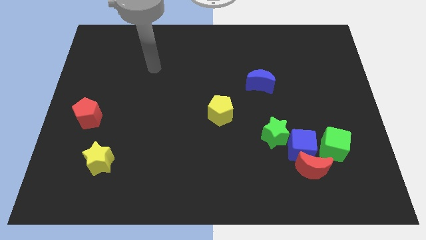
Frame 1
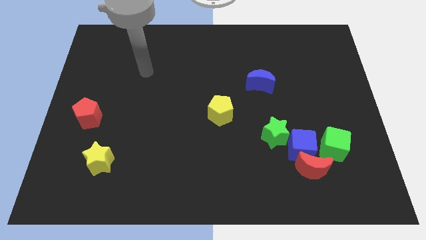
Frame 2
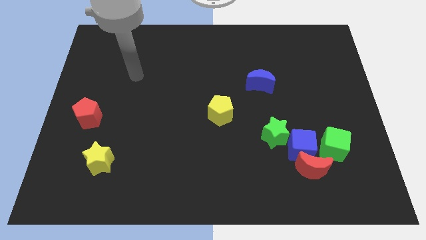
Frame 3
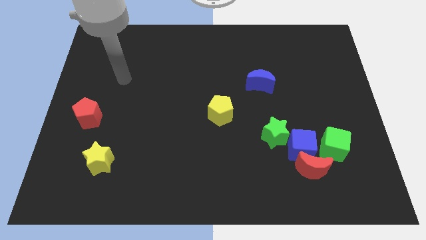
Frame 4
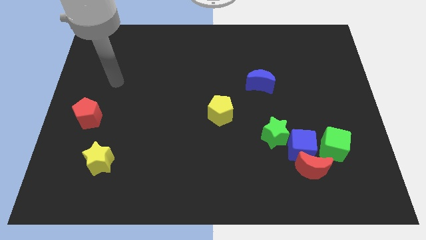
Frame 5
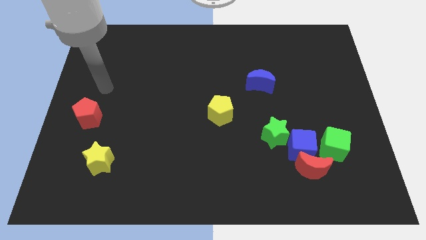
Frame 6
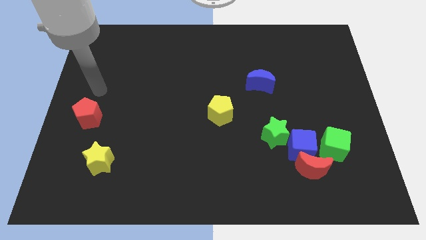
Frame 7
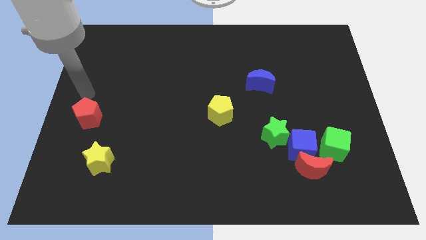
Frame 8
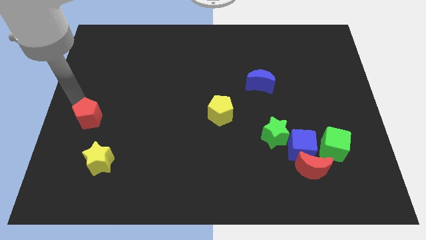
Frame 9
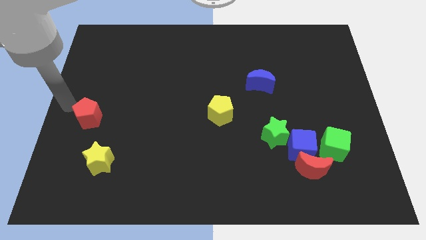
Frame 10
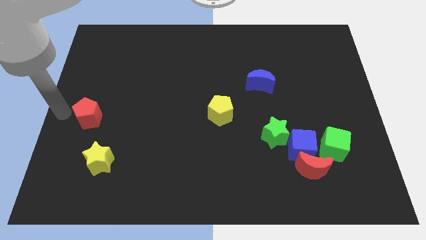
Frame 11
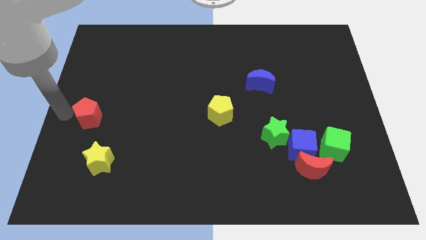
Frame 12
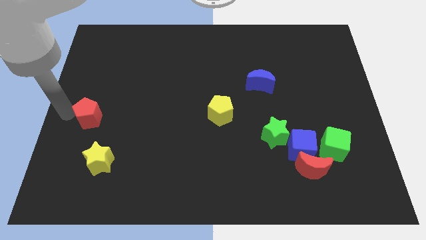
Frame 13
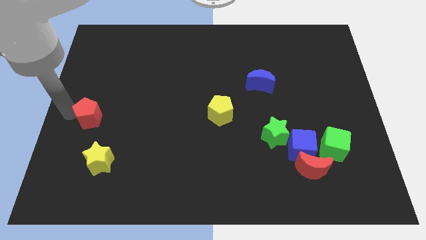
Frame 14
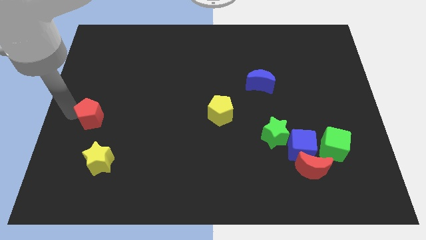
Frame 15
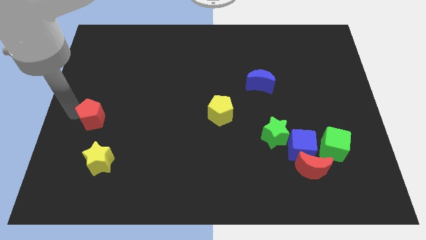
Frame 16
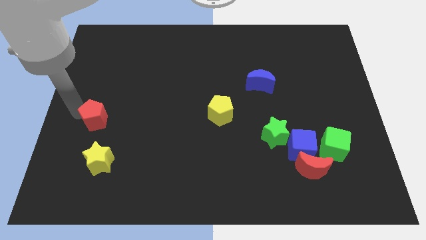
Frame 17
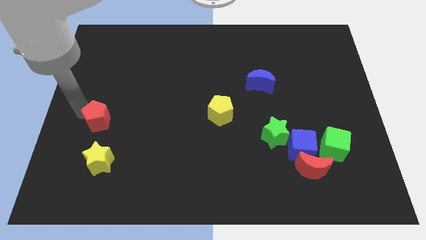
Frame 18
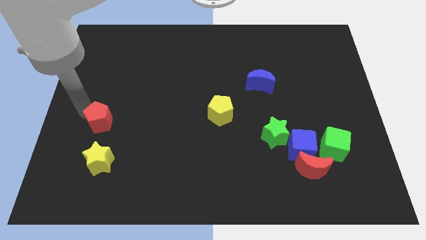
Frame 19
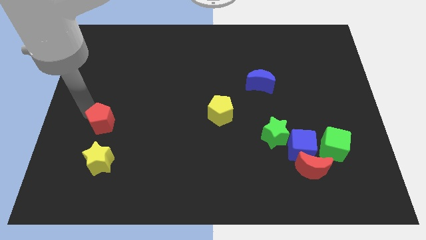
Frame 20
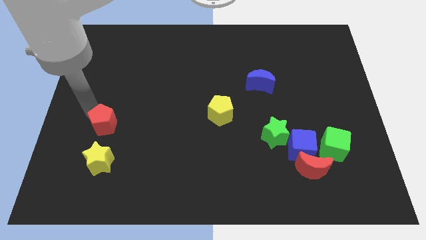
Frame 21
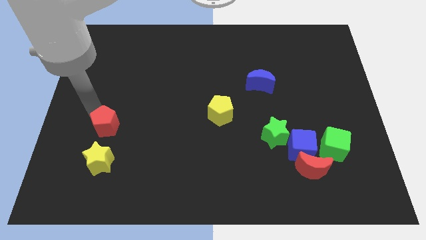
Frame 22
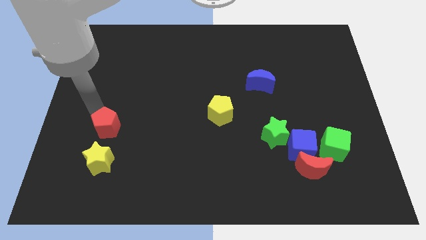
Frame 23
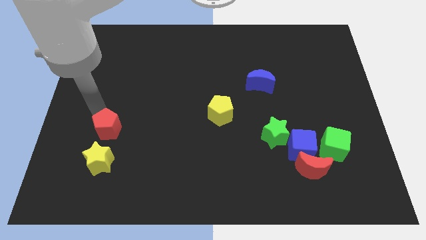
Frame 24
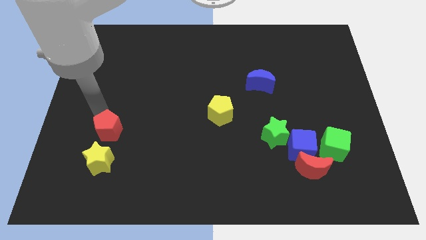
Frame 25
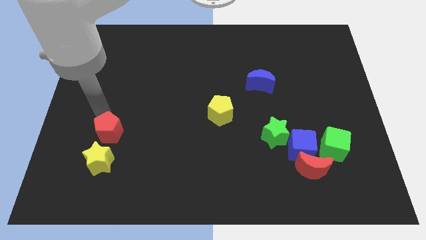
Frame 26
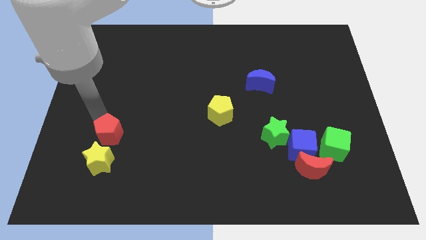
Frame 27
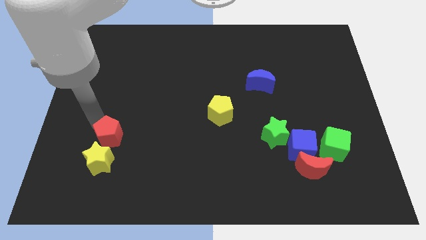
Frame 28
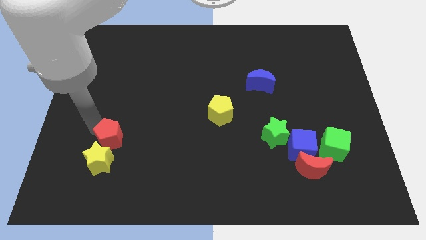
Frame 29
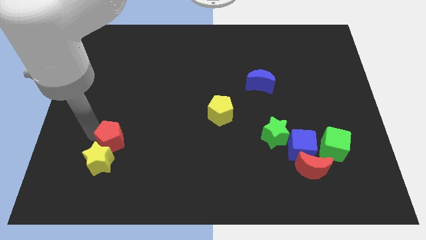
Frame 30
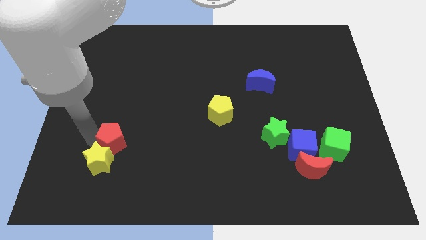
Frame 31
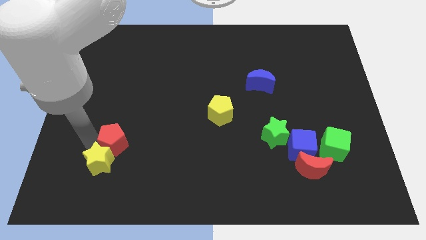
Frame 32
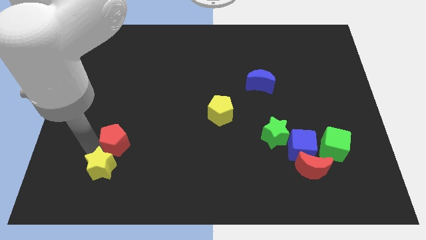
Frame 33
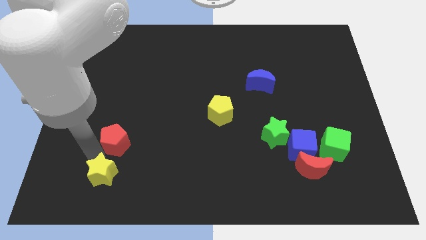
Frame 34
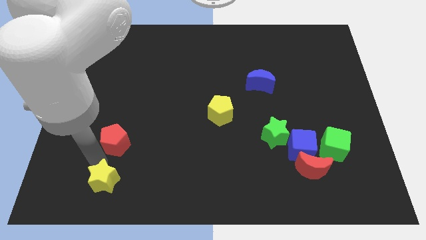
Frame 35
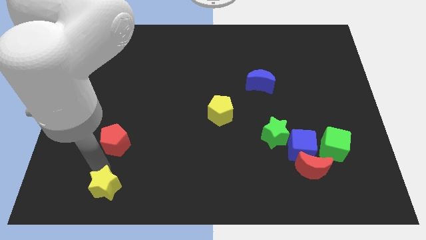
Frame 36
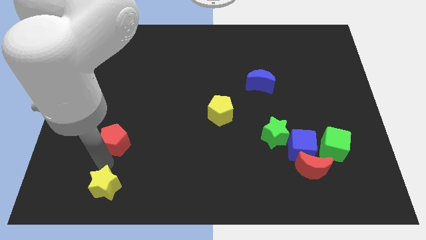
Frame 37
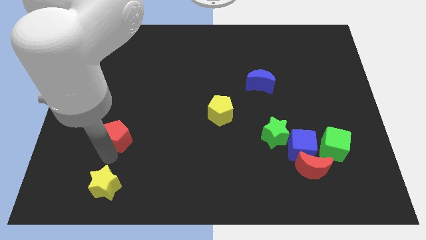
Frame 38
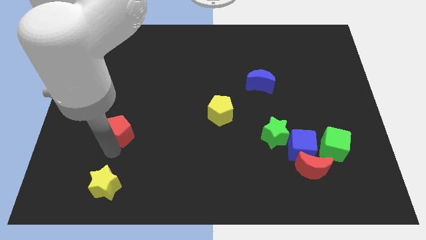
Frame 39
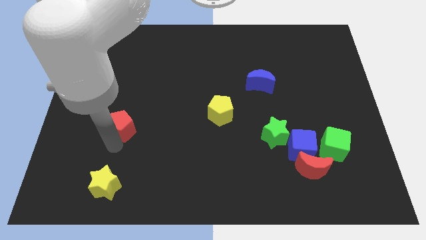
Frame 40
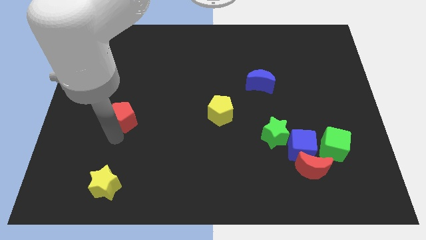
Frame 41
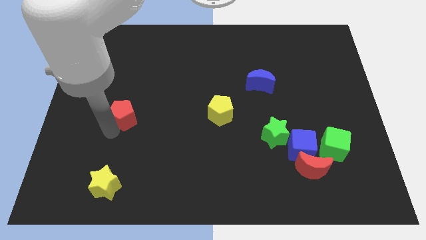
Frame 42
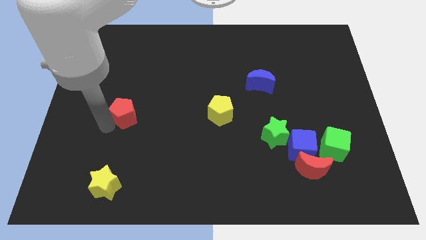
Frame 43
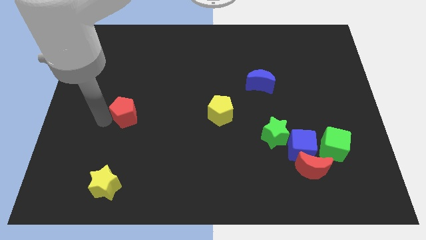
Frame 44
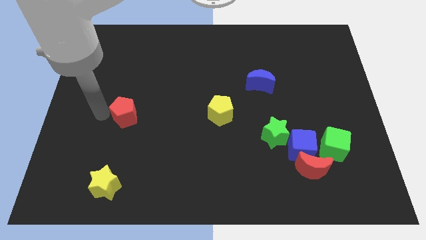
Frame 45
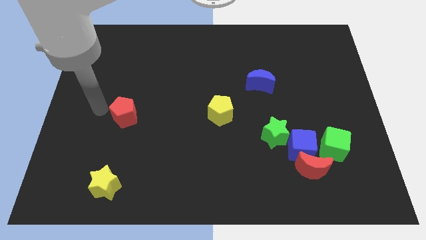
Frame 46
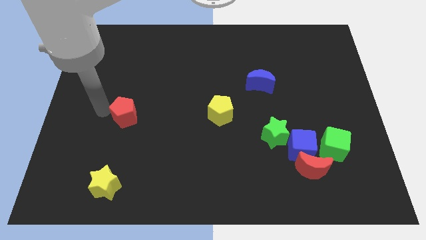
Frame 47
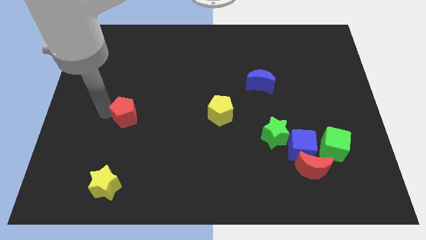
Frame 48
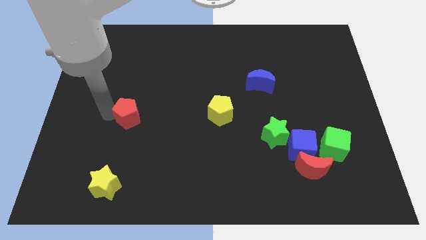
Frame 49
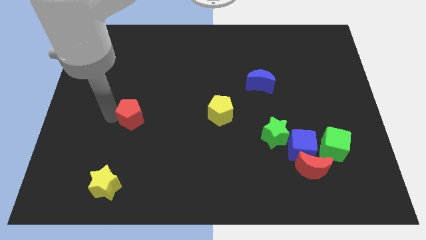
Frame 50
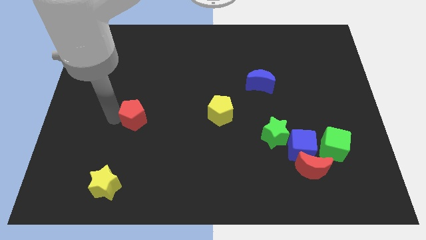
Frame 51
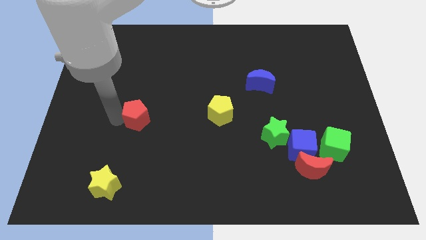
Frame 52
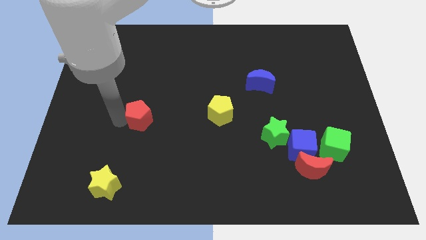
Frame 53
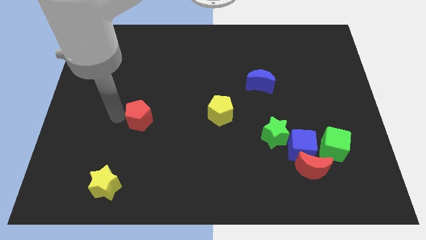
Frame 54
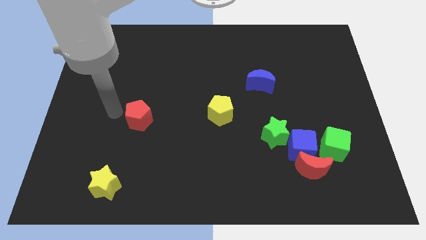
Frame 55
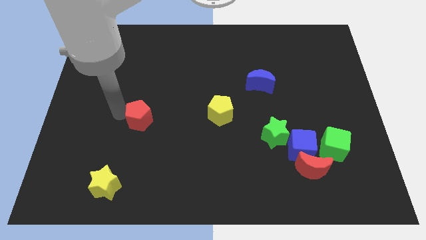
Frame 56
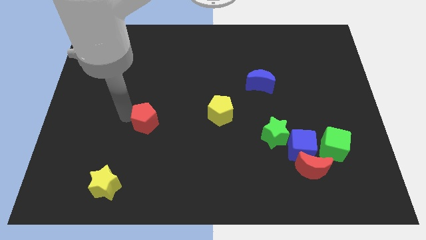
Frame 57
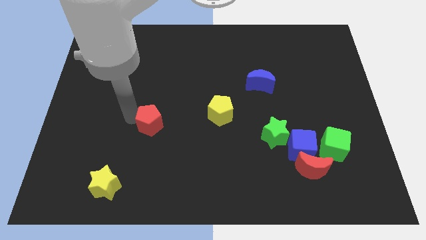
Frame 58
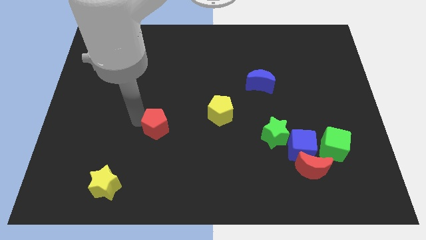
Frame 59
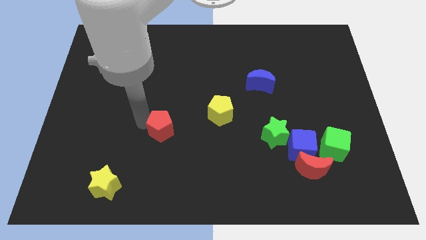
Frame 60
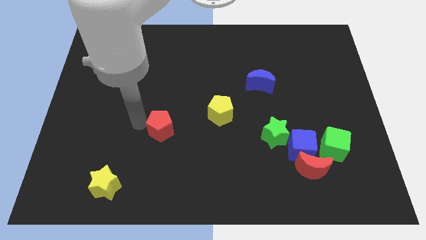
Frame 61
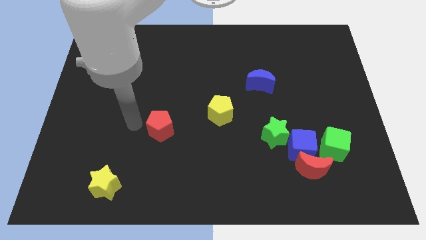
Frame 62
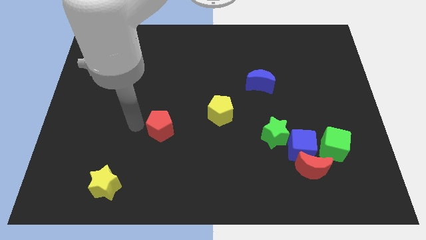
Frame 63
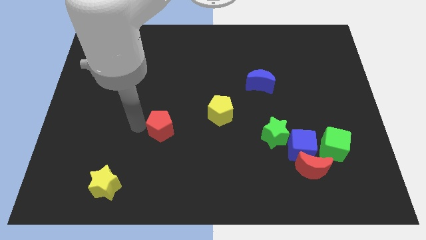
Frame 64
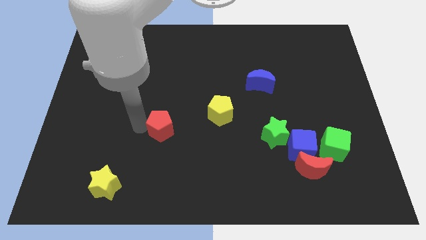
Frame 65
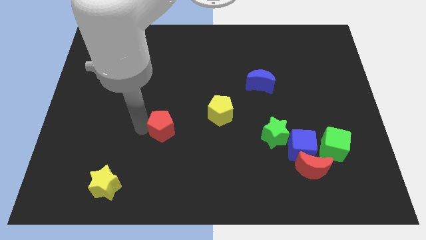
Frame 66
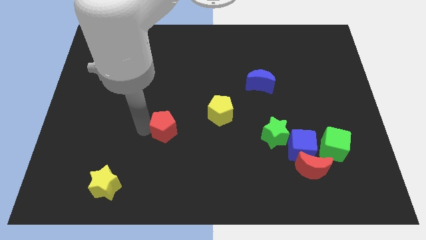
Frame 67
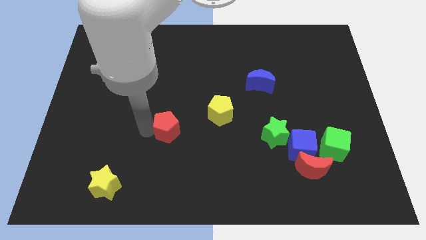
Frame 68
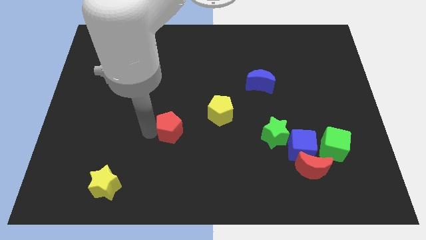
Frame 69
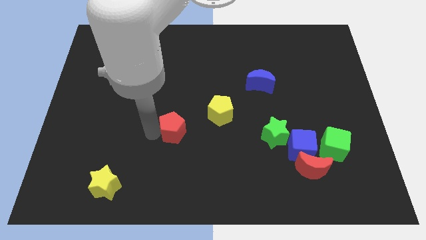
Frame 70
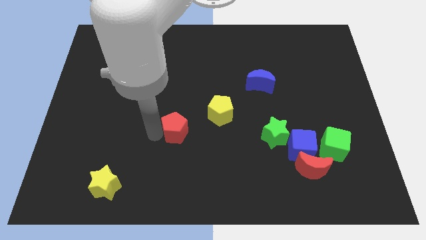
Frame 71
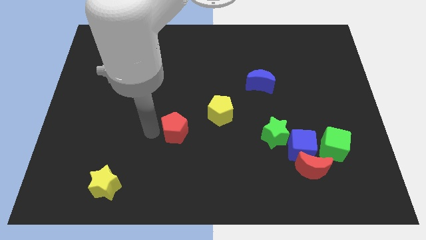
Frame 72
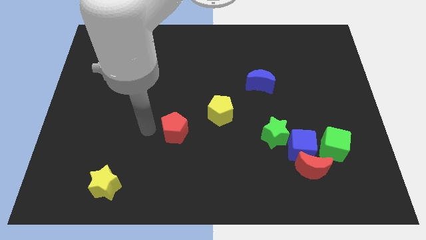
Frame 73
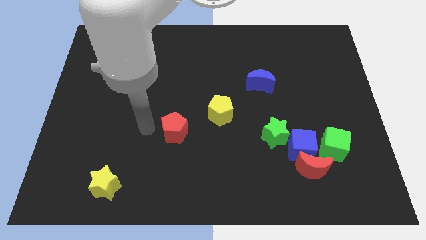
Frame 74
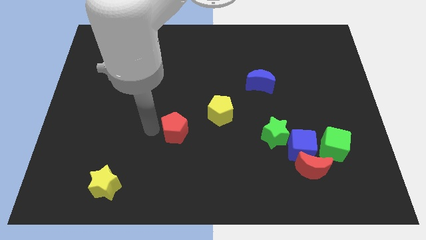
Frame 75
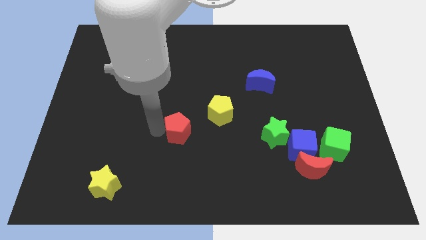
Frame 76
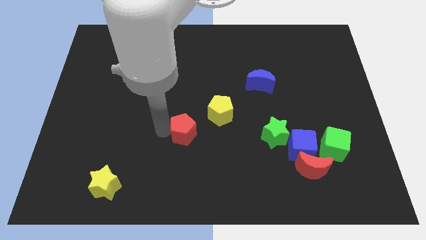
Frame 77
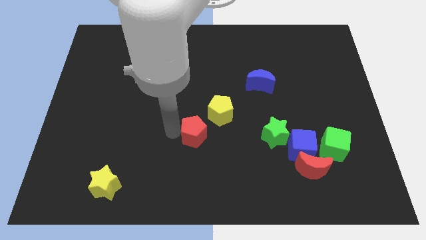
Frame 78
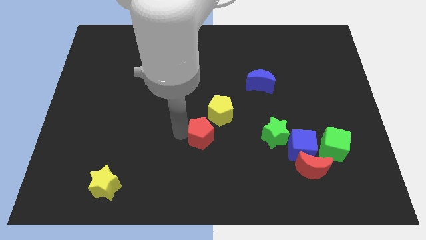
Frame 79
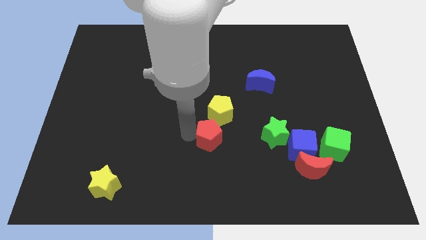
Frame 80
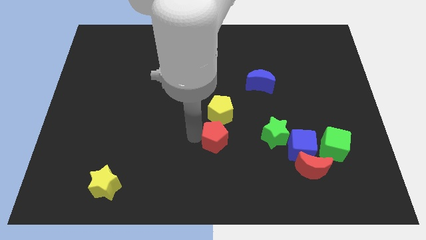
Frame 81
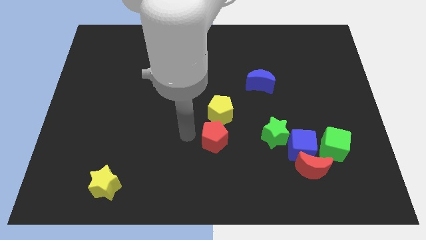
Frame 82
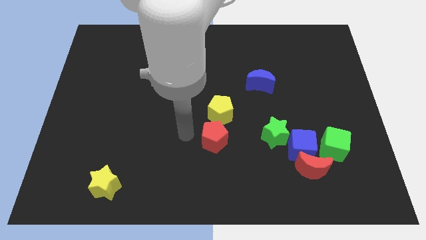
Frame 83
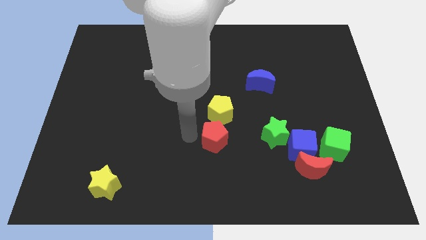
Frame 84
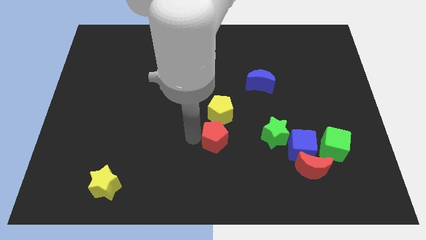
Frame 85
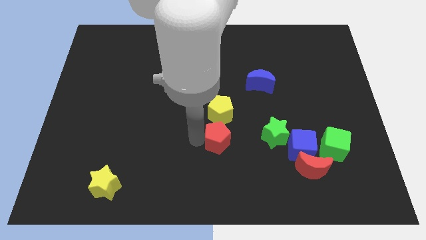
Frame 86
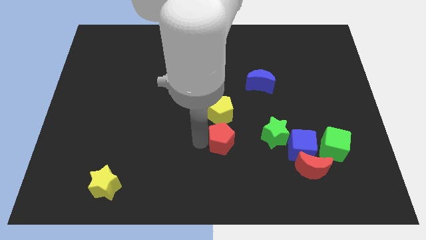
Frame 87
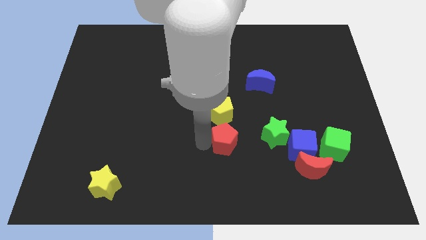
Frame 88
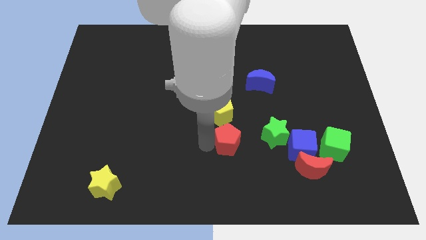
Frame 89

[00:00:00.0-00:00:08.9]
put the red pentagon just left of the blue cube
